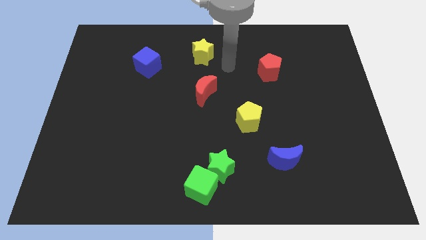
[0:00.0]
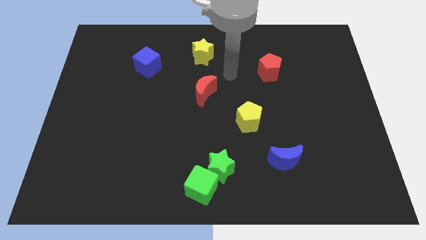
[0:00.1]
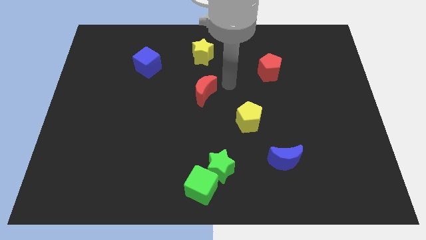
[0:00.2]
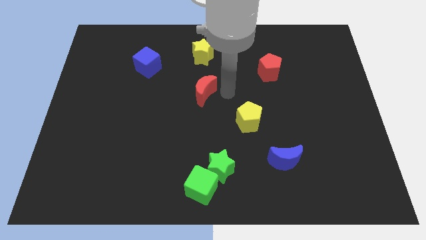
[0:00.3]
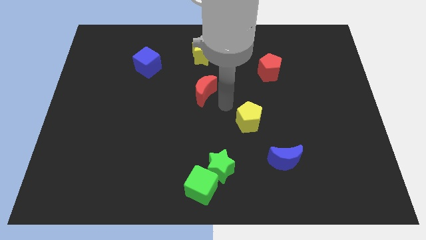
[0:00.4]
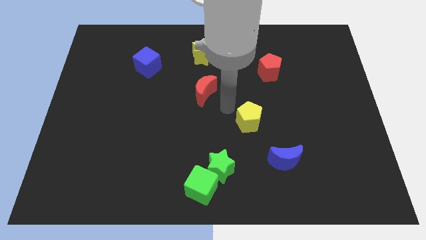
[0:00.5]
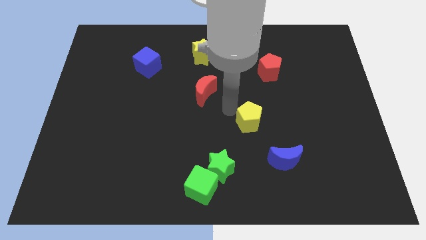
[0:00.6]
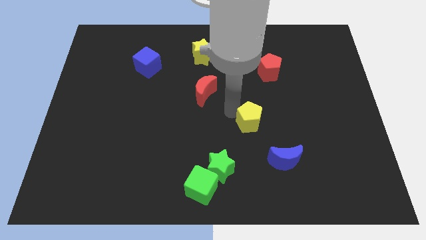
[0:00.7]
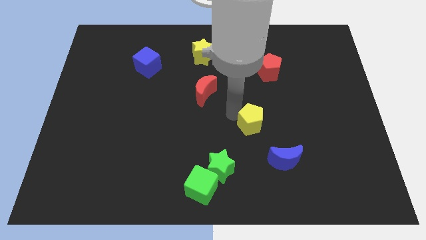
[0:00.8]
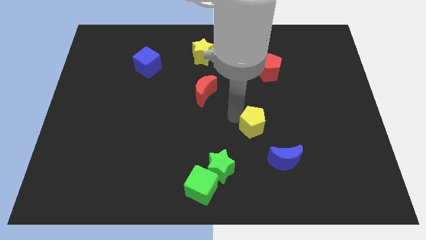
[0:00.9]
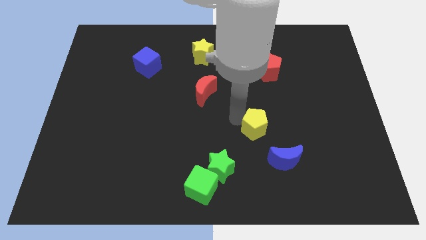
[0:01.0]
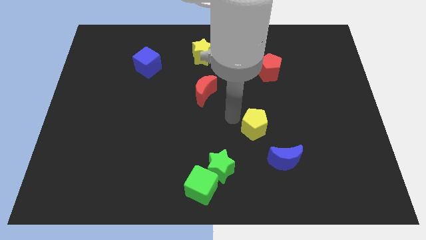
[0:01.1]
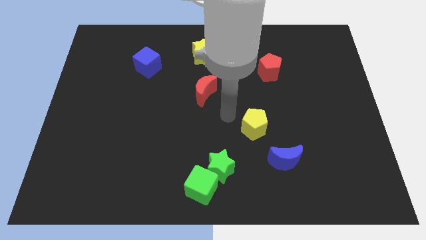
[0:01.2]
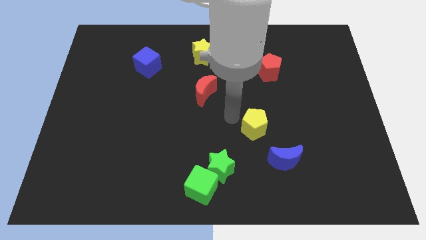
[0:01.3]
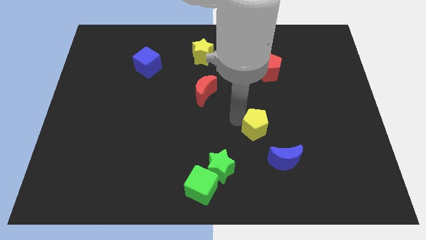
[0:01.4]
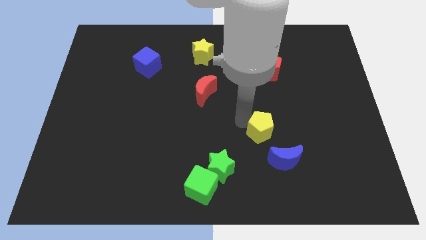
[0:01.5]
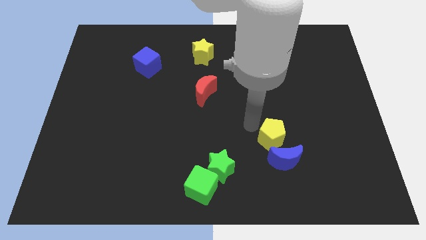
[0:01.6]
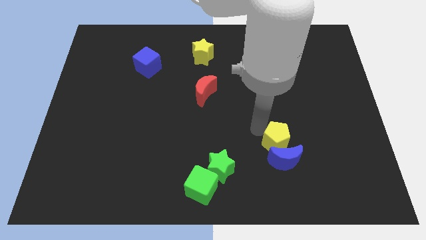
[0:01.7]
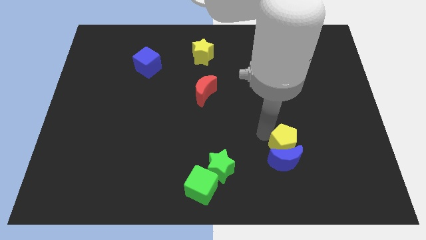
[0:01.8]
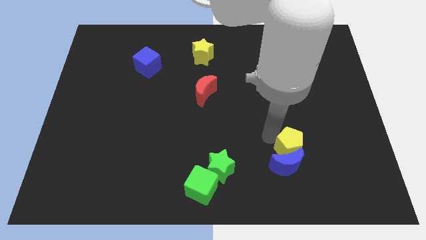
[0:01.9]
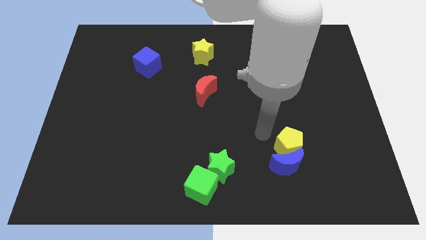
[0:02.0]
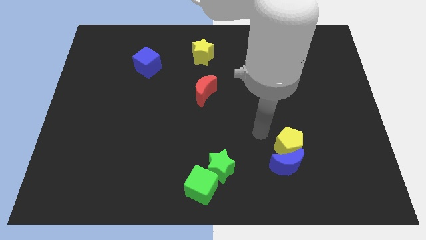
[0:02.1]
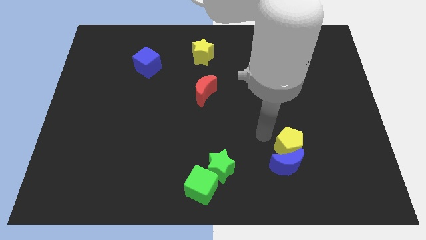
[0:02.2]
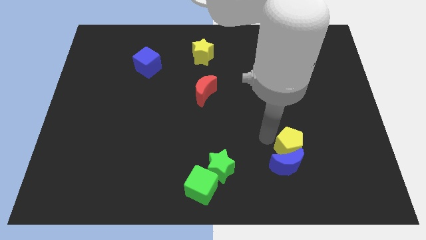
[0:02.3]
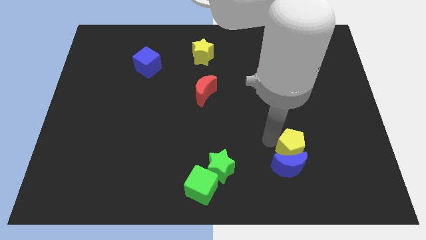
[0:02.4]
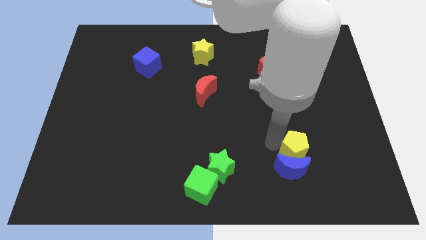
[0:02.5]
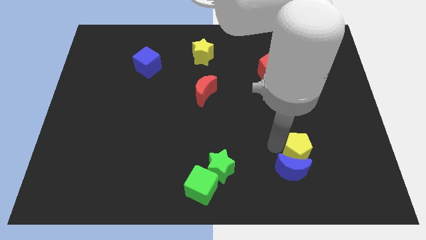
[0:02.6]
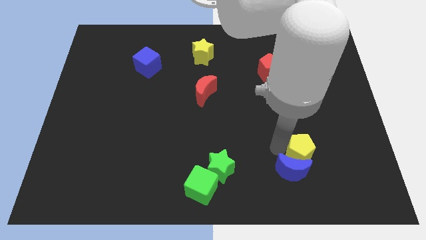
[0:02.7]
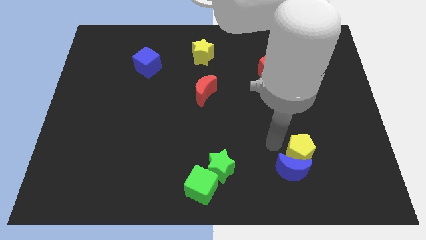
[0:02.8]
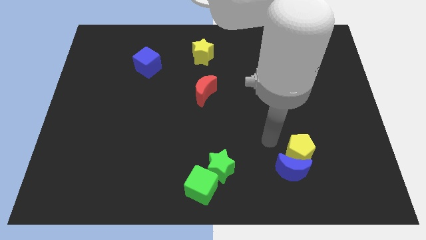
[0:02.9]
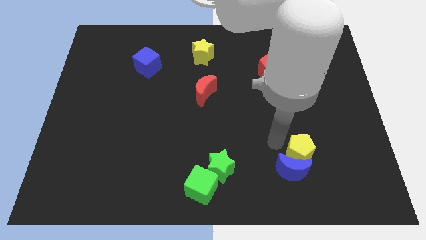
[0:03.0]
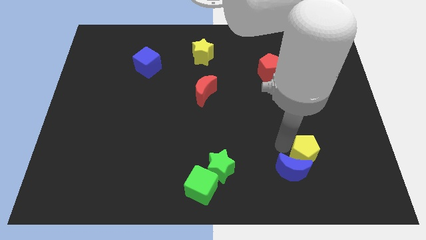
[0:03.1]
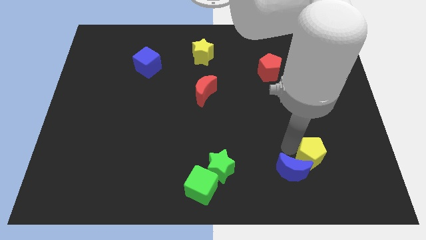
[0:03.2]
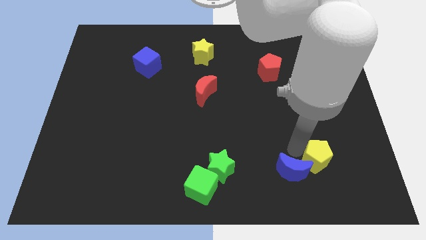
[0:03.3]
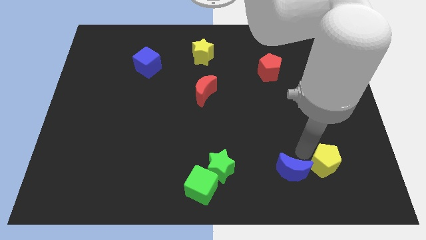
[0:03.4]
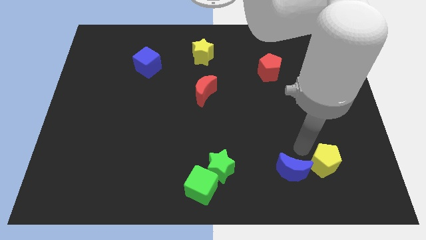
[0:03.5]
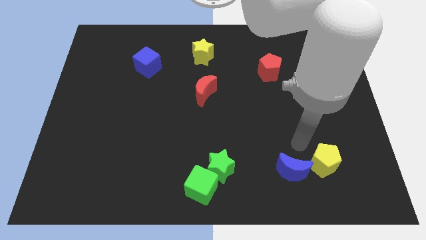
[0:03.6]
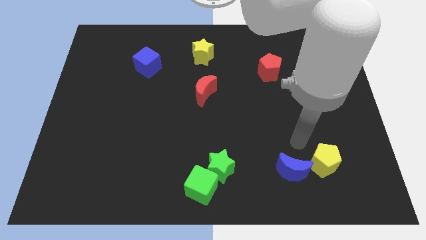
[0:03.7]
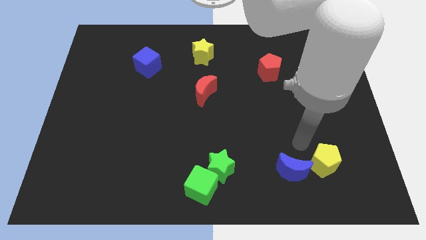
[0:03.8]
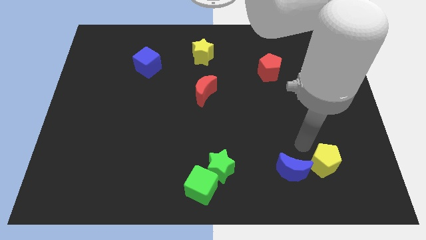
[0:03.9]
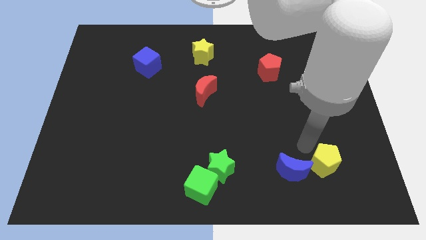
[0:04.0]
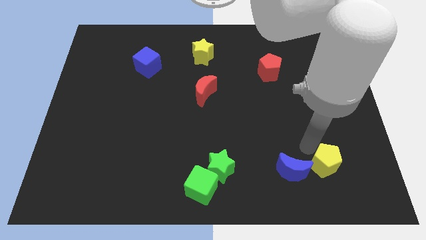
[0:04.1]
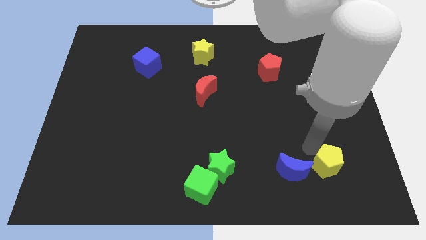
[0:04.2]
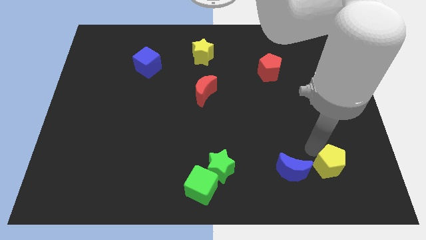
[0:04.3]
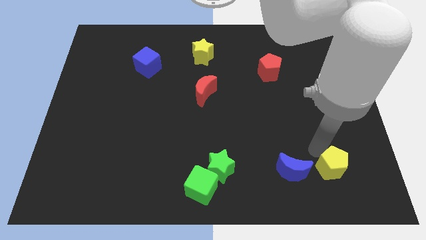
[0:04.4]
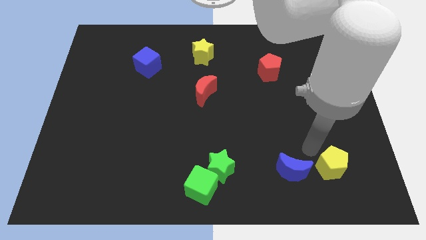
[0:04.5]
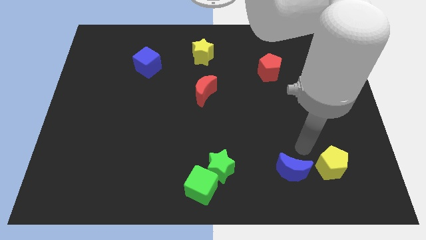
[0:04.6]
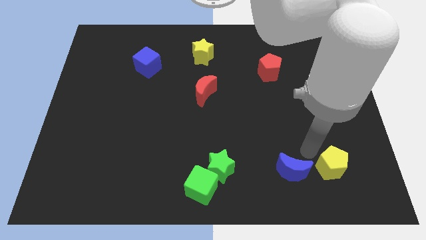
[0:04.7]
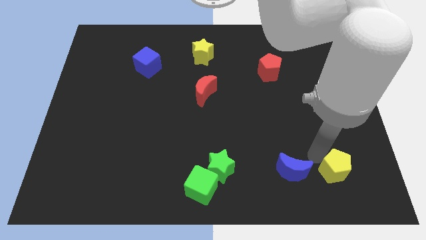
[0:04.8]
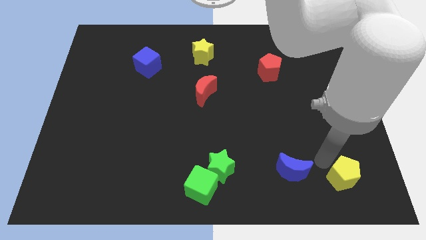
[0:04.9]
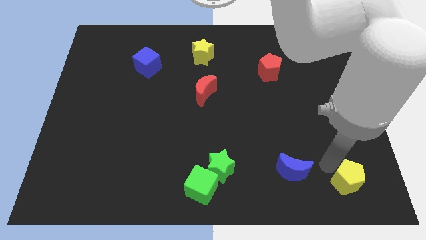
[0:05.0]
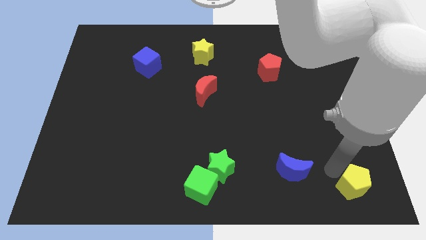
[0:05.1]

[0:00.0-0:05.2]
push the yellow pentagon to the bottom right corner

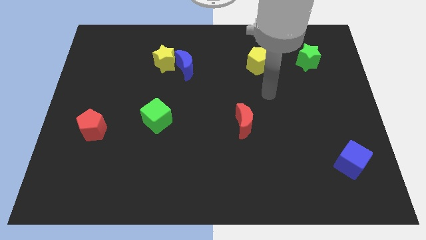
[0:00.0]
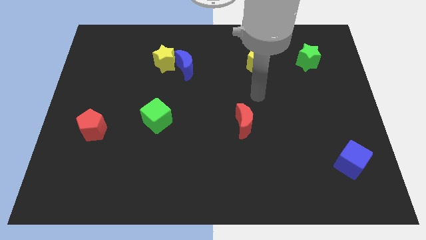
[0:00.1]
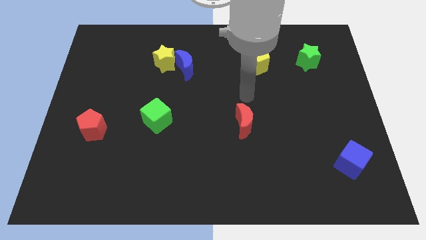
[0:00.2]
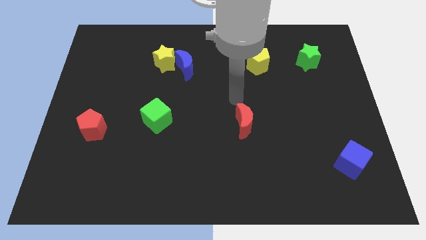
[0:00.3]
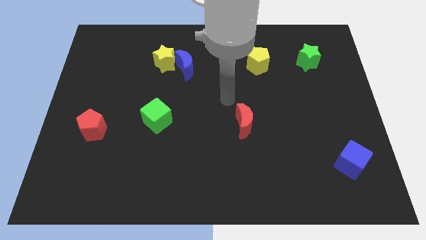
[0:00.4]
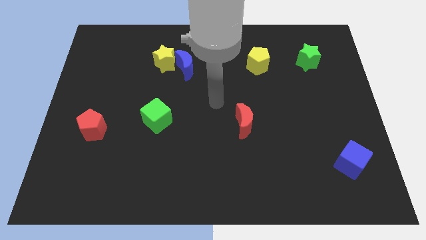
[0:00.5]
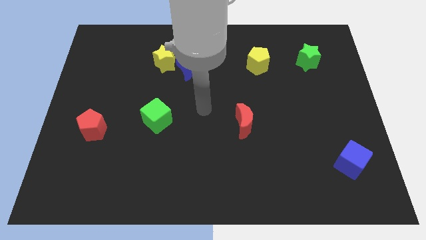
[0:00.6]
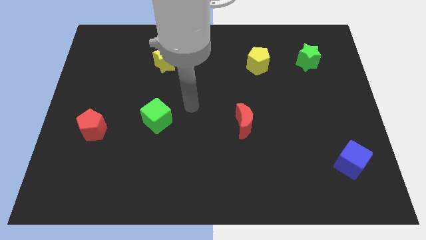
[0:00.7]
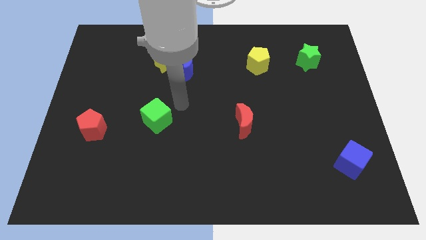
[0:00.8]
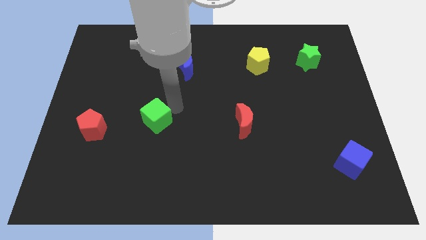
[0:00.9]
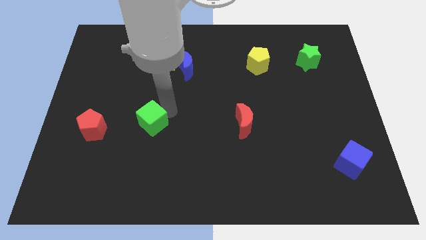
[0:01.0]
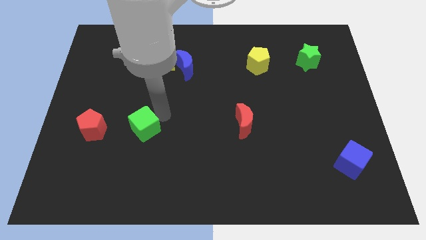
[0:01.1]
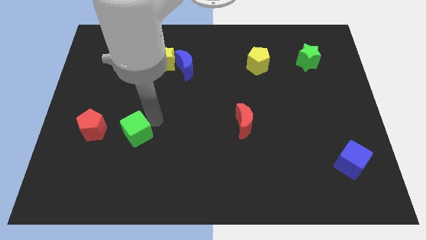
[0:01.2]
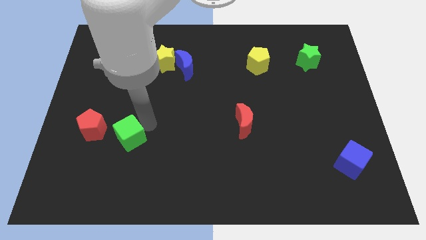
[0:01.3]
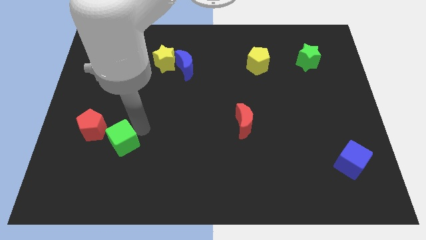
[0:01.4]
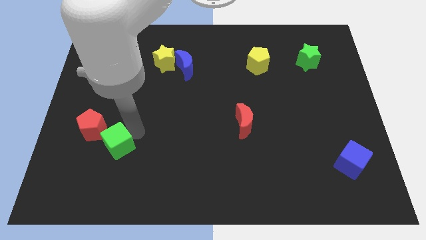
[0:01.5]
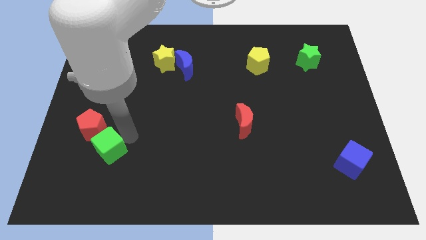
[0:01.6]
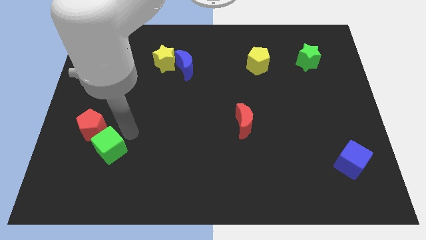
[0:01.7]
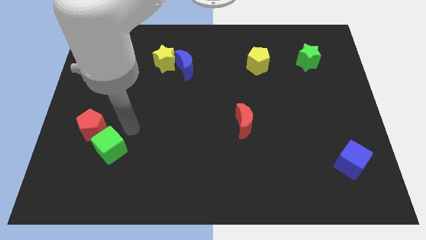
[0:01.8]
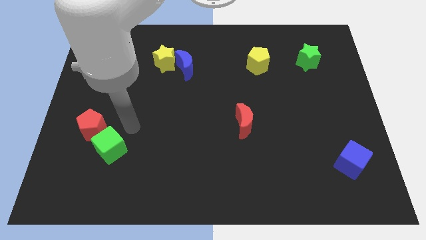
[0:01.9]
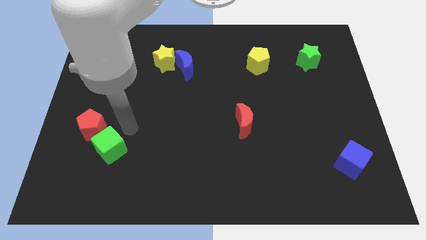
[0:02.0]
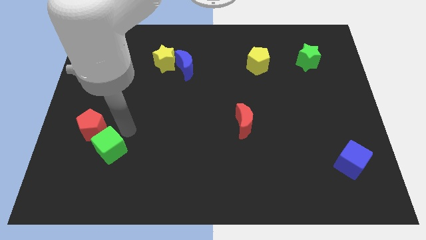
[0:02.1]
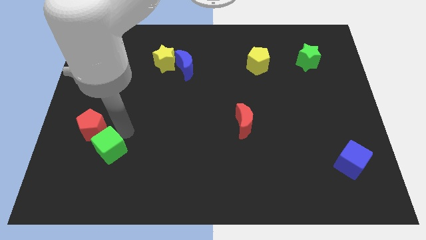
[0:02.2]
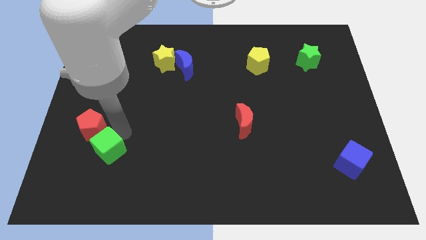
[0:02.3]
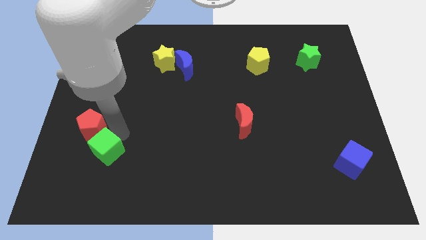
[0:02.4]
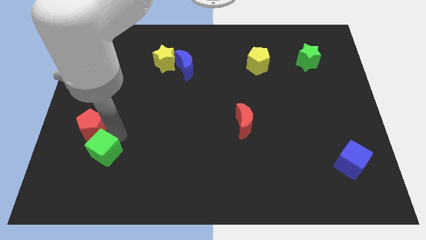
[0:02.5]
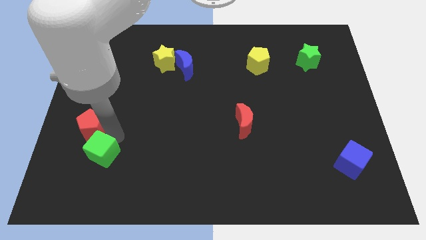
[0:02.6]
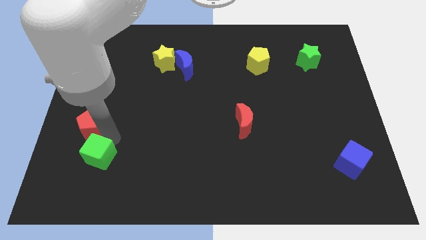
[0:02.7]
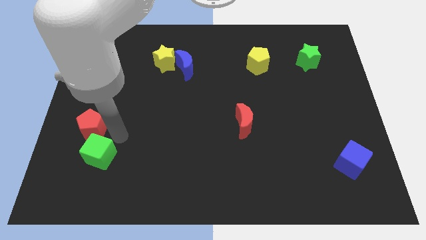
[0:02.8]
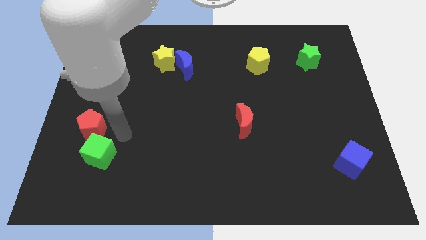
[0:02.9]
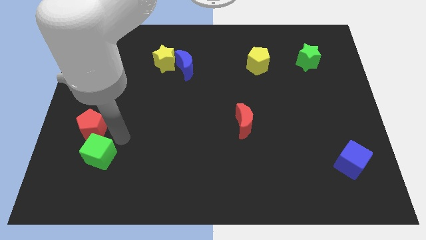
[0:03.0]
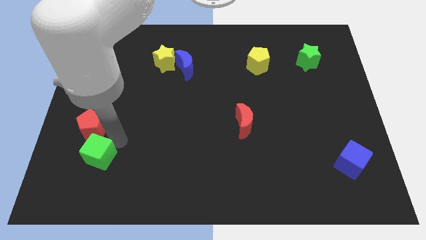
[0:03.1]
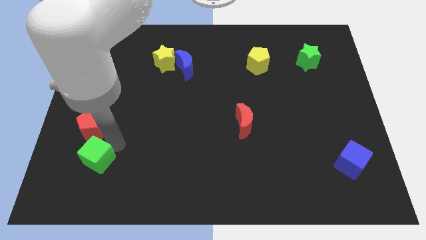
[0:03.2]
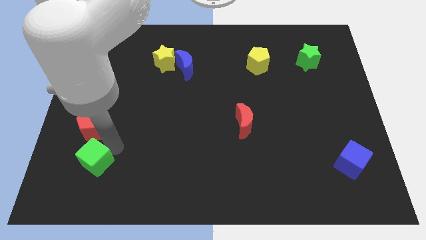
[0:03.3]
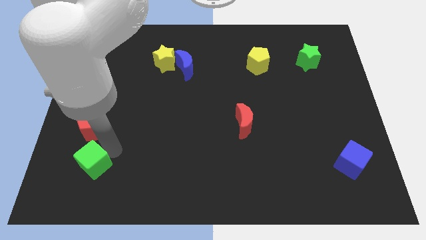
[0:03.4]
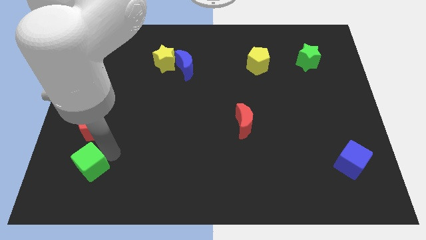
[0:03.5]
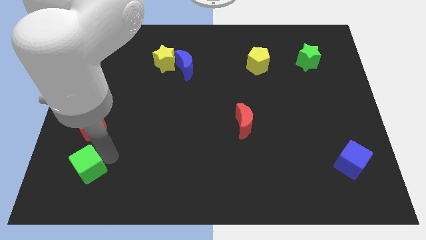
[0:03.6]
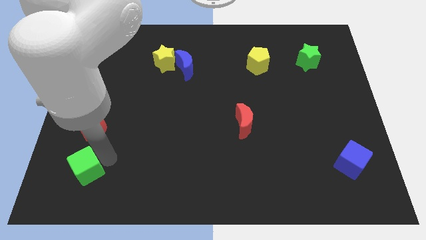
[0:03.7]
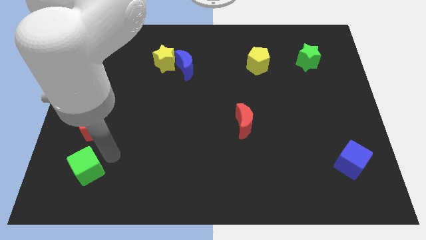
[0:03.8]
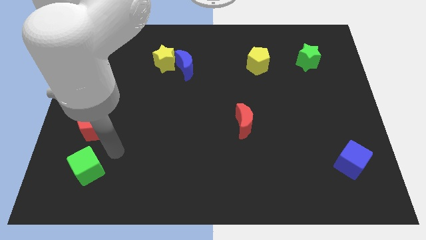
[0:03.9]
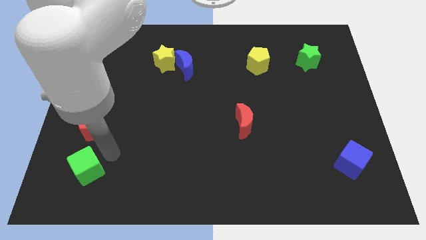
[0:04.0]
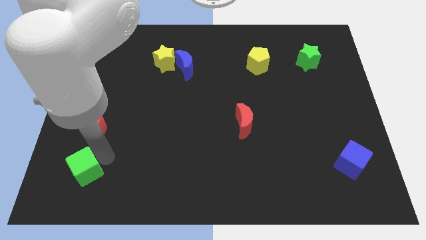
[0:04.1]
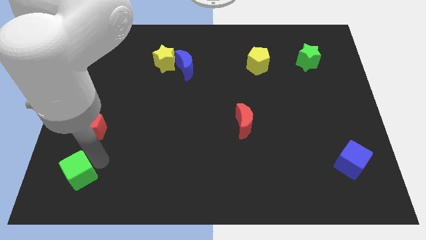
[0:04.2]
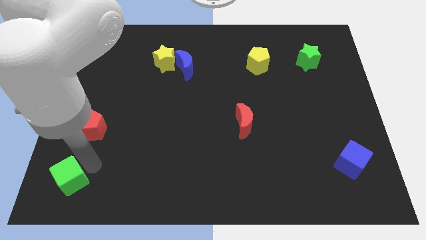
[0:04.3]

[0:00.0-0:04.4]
move the green cube to the bottom left of the board
